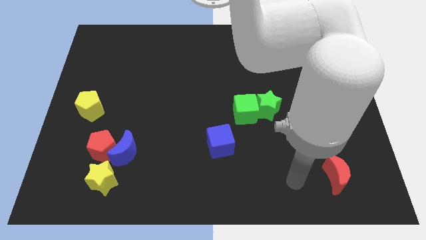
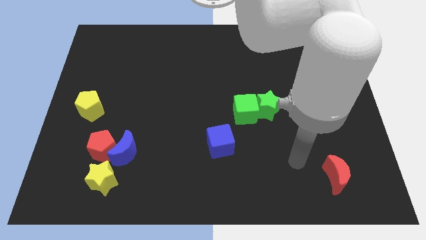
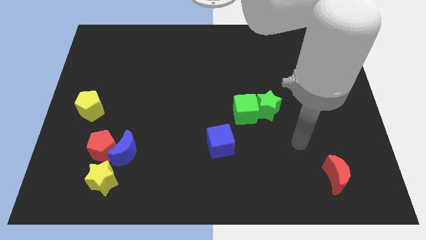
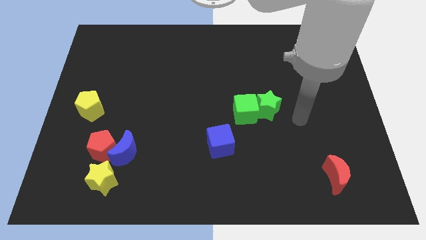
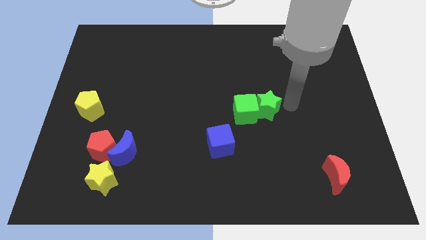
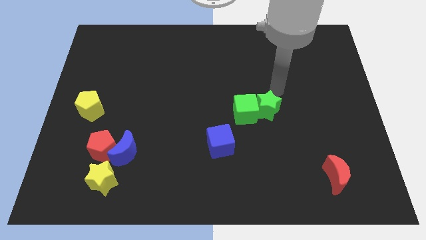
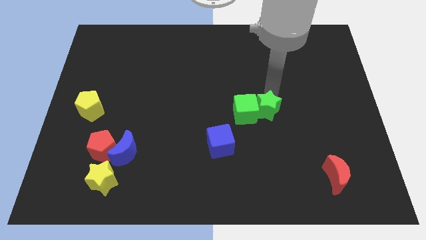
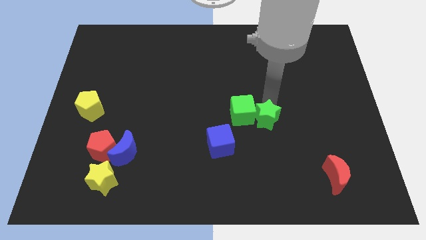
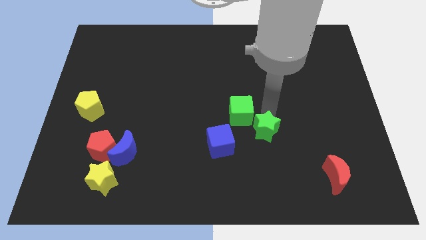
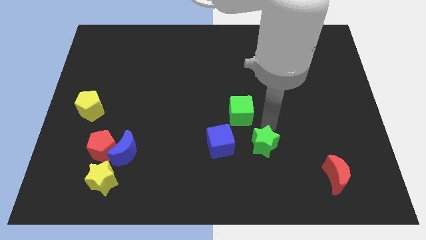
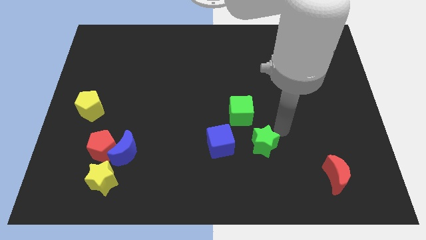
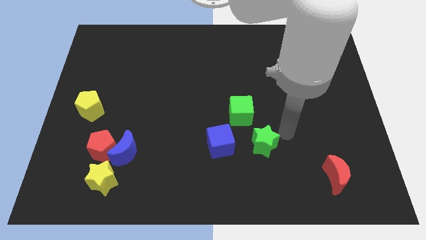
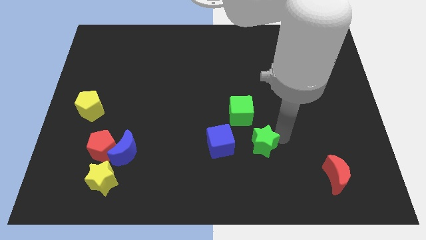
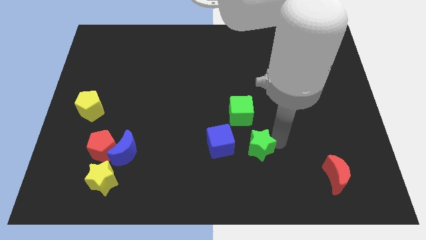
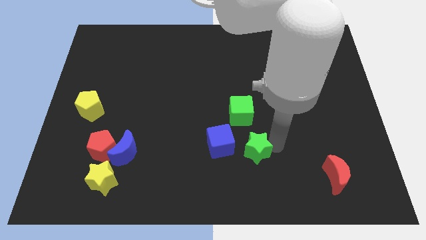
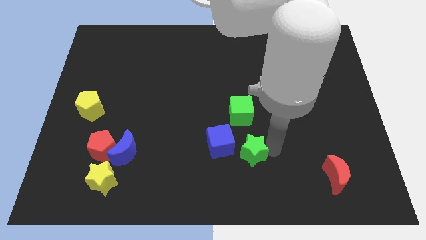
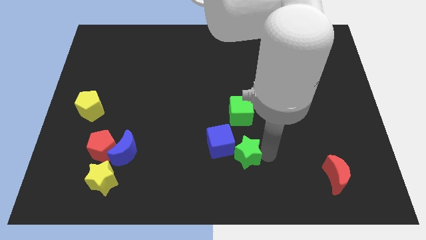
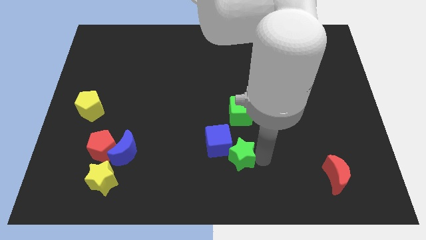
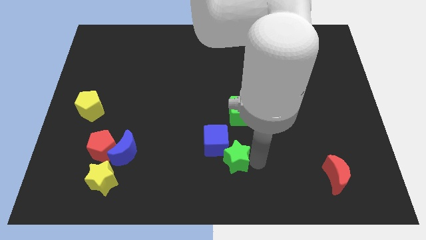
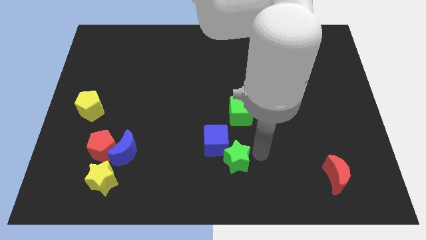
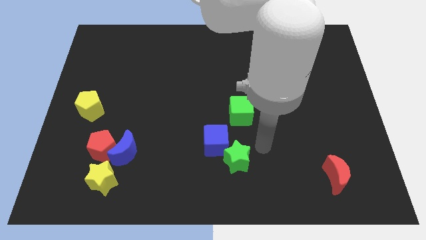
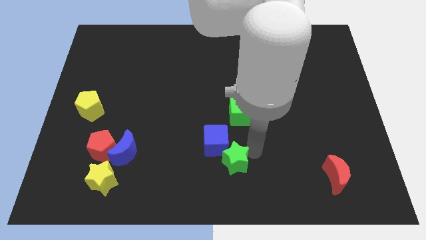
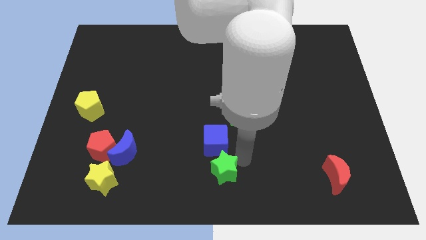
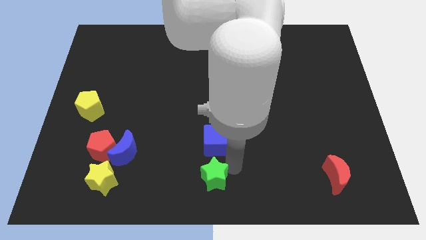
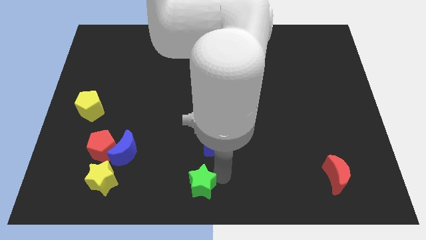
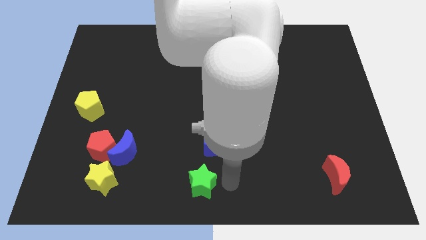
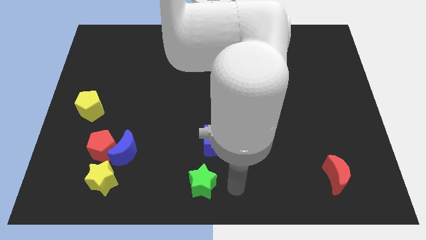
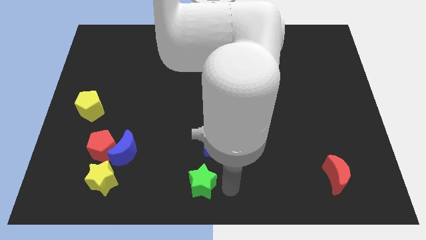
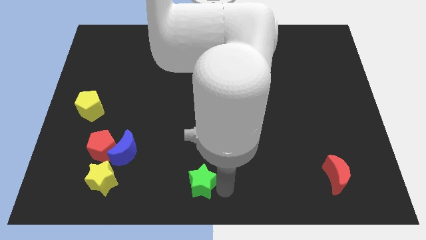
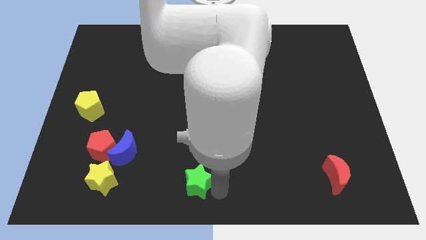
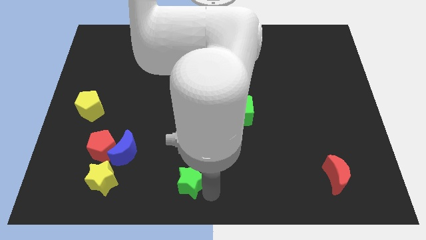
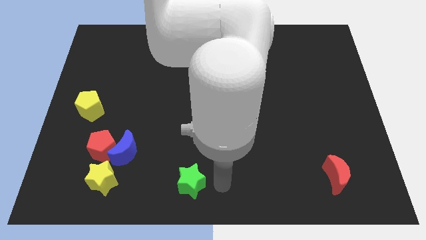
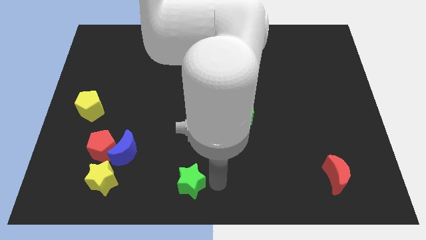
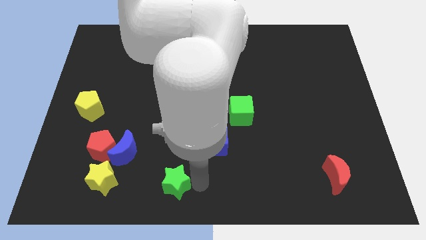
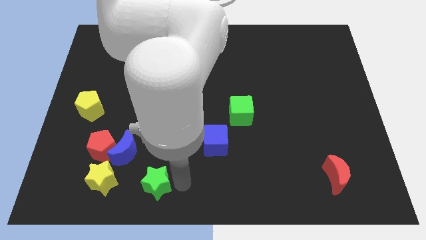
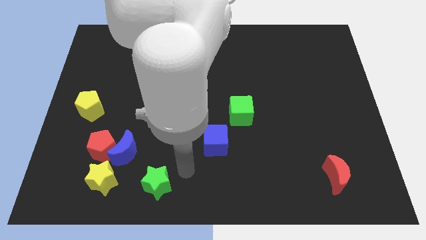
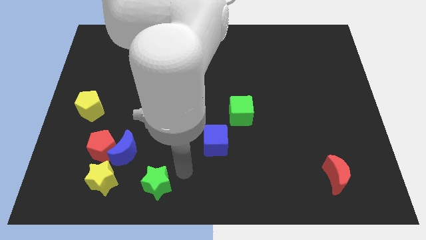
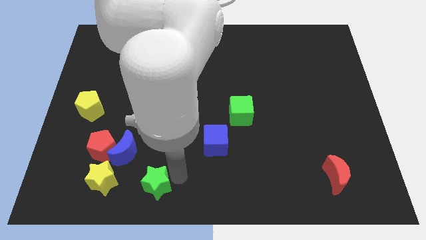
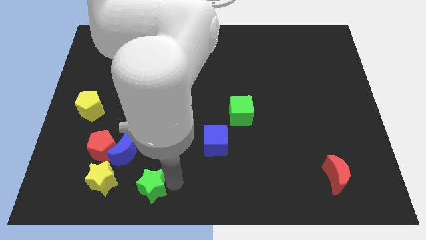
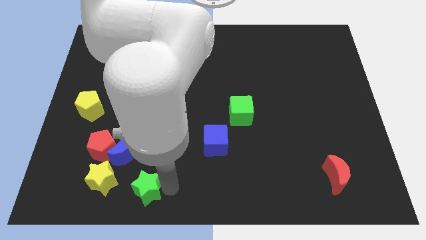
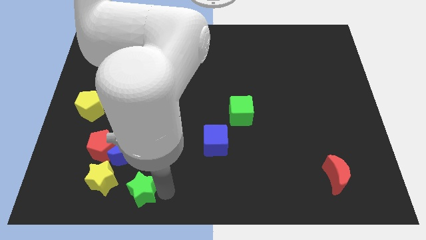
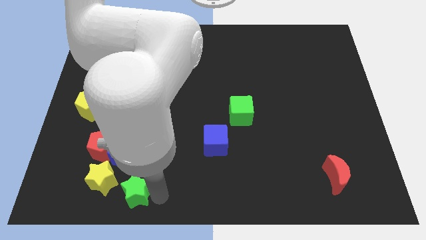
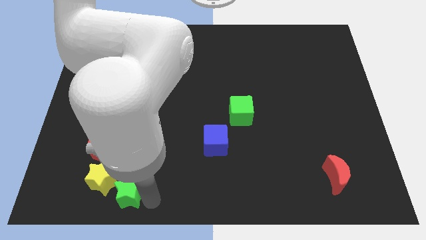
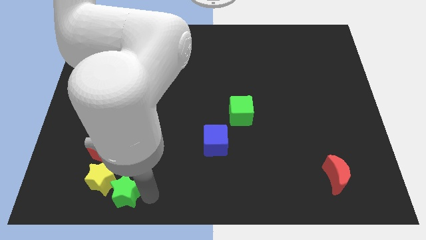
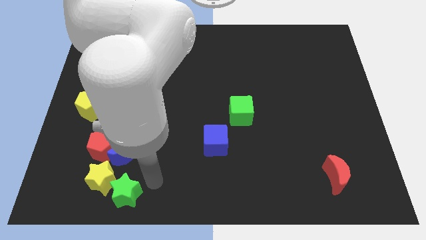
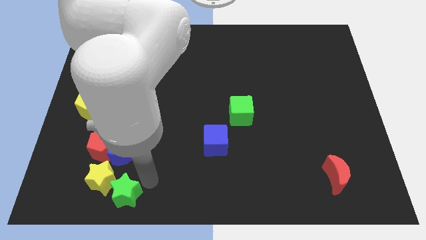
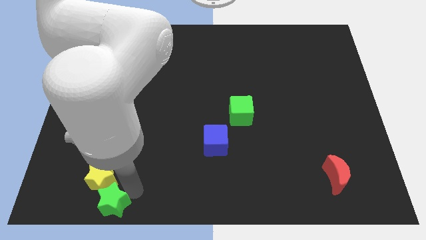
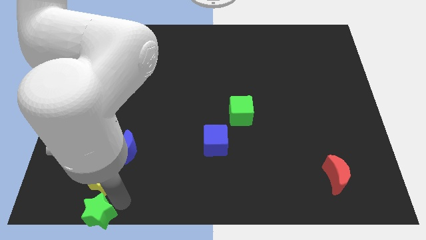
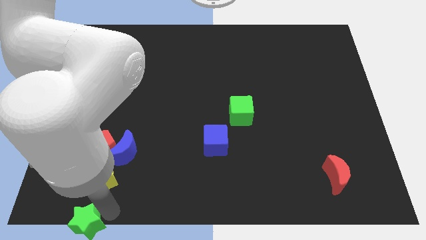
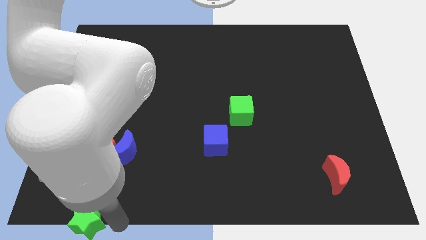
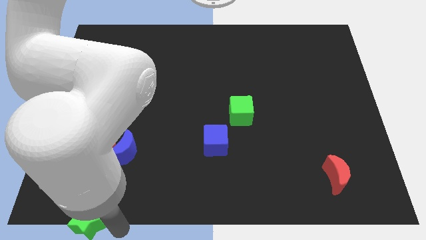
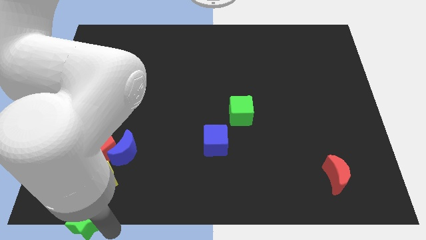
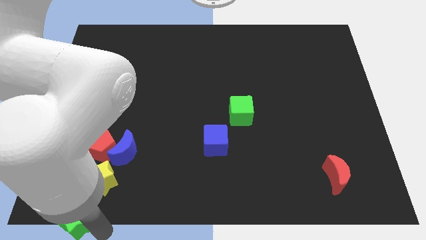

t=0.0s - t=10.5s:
move the green star to the lower left corner

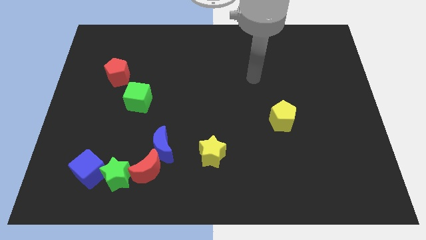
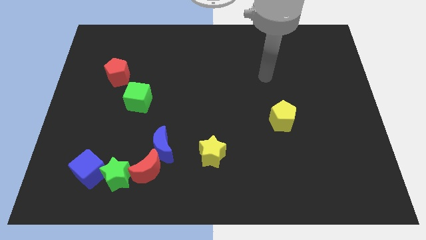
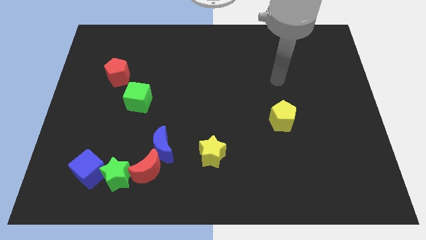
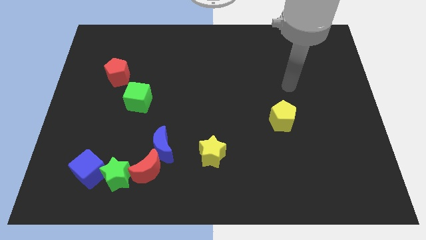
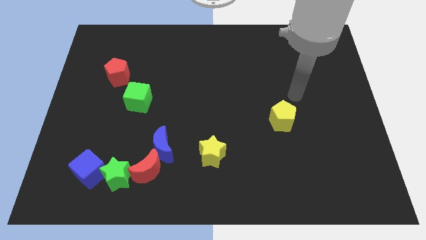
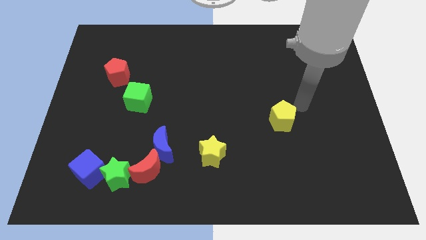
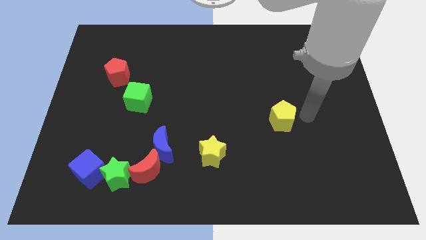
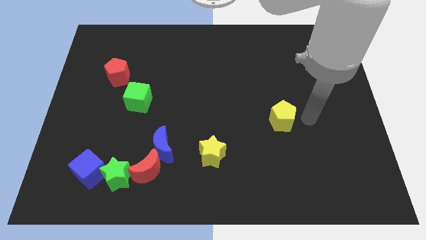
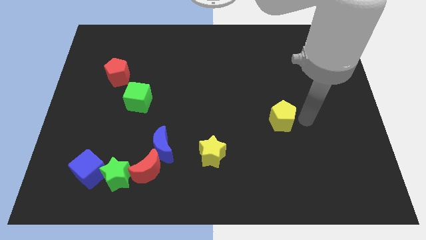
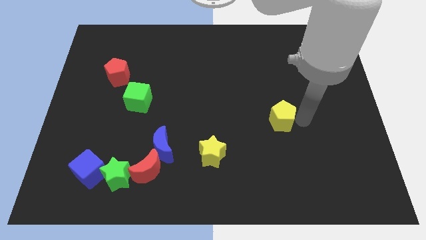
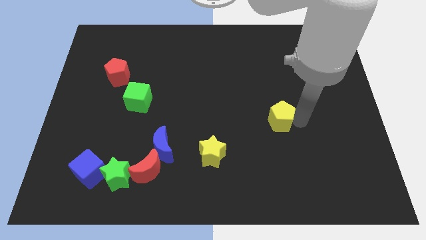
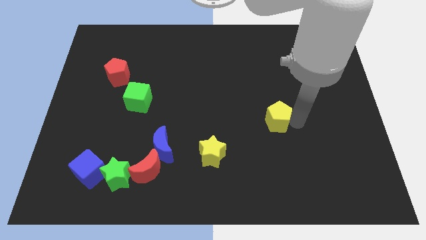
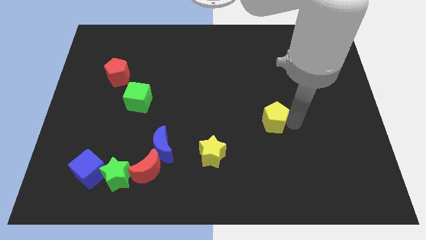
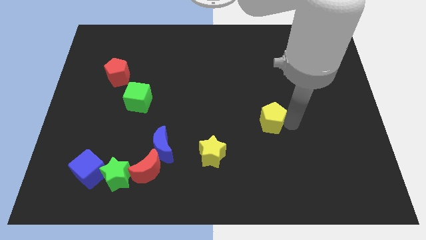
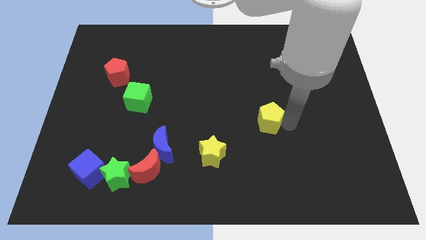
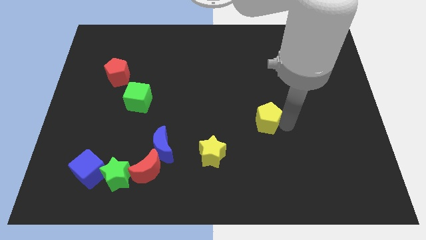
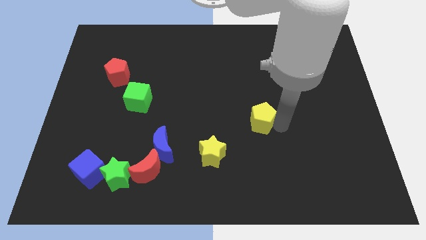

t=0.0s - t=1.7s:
put the yellow pentagon to the center

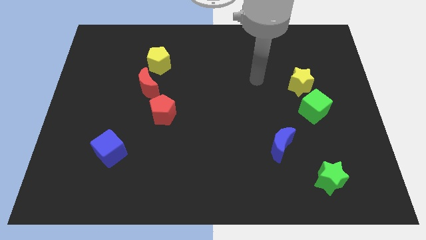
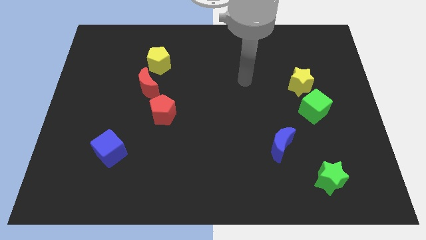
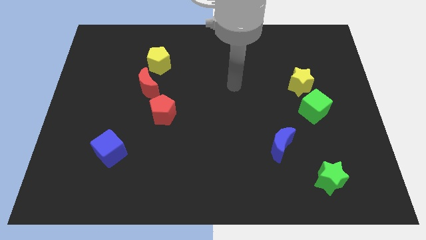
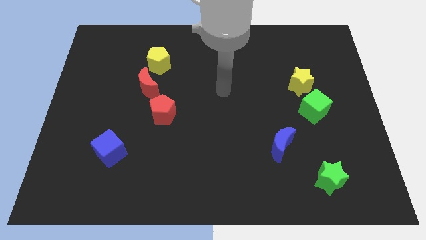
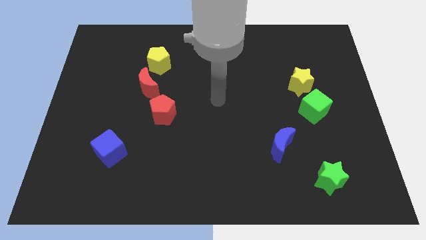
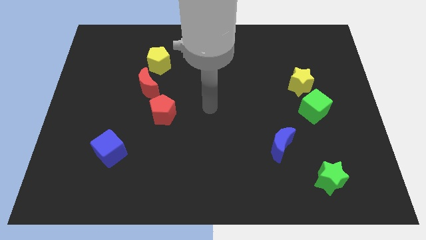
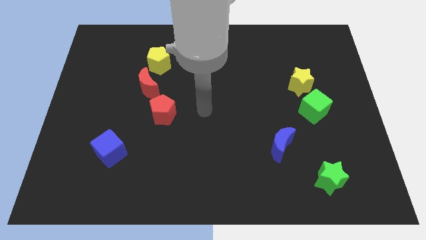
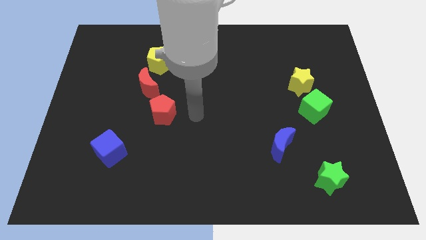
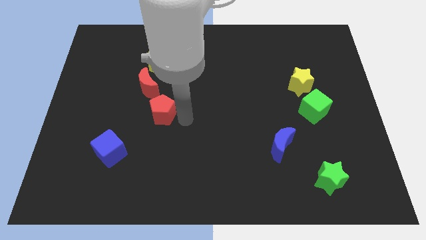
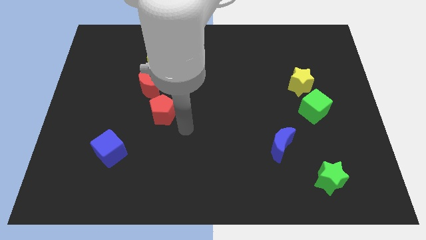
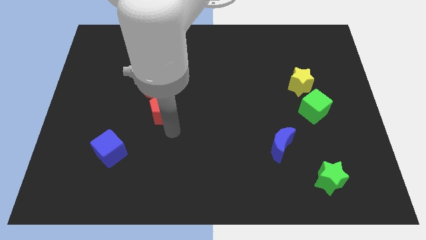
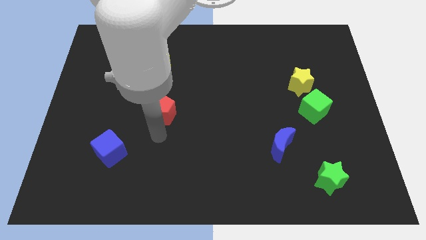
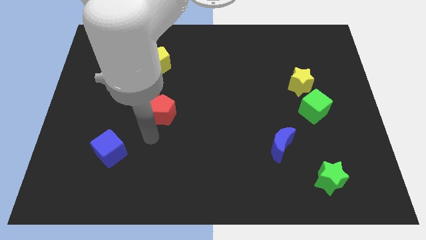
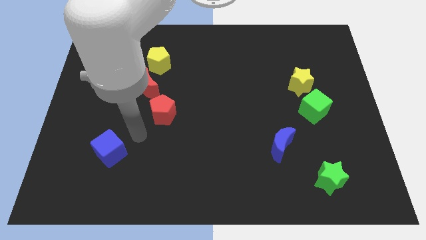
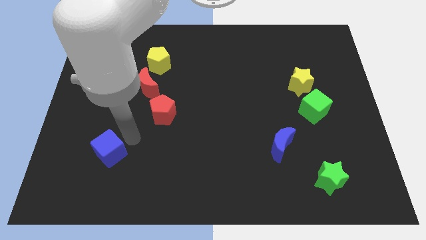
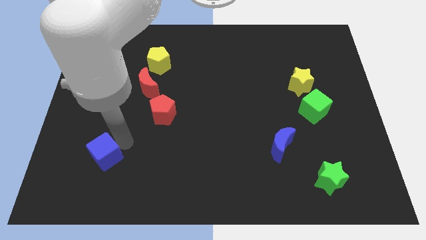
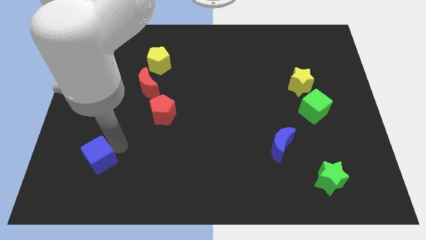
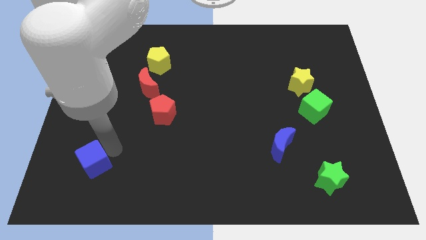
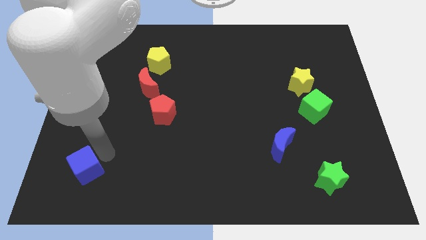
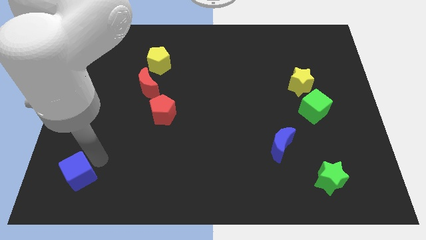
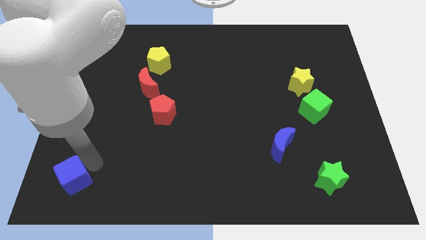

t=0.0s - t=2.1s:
move the blue cube to the bottom left corner
